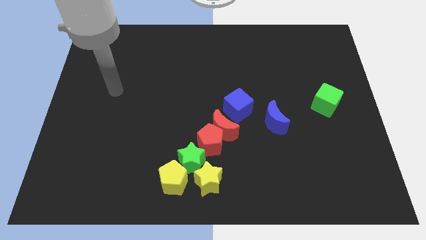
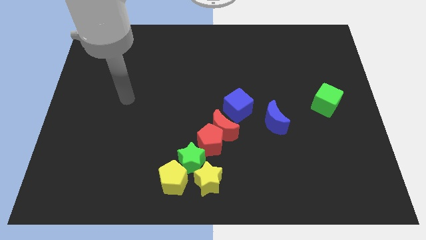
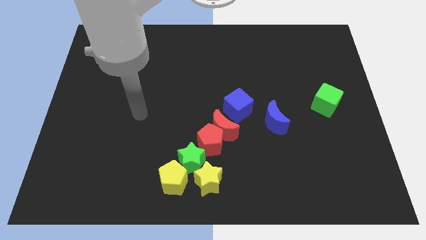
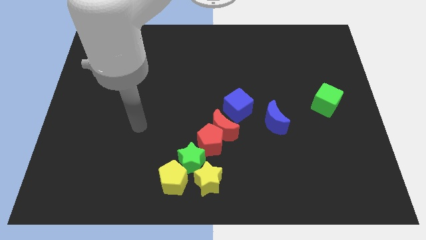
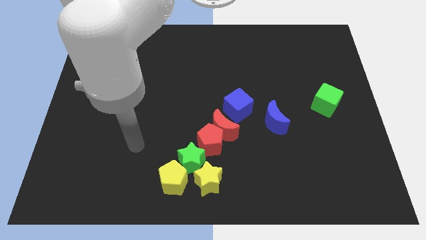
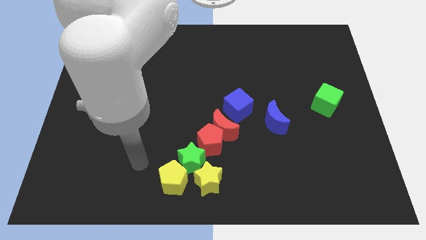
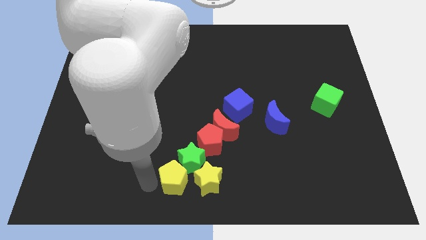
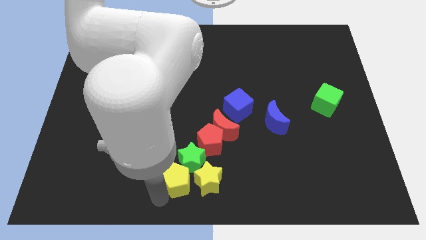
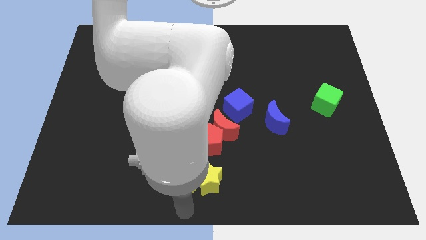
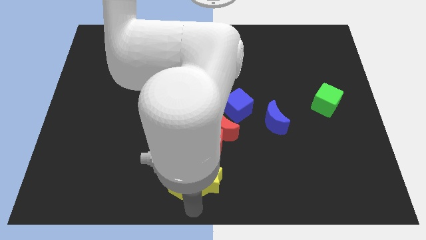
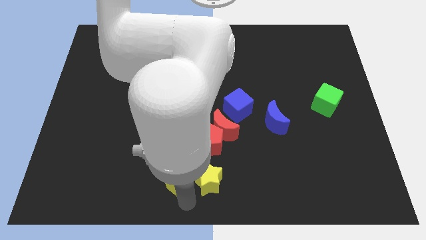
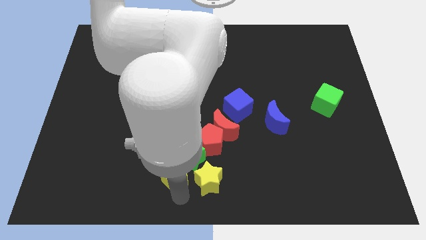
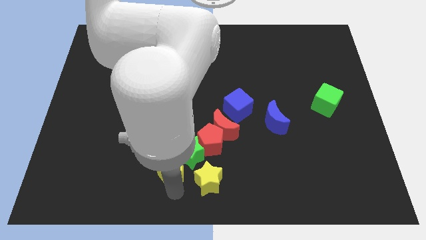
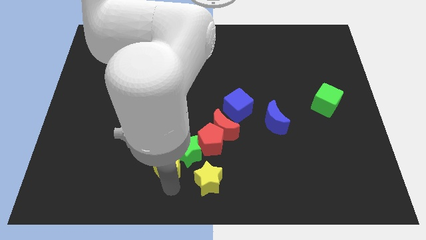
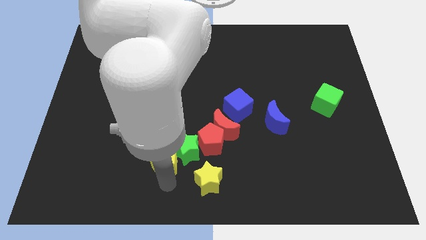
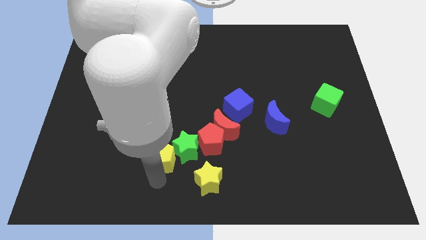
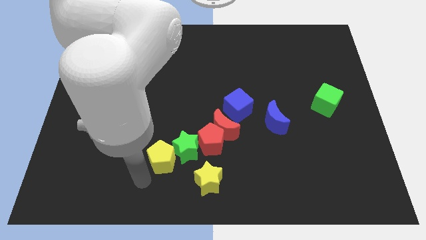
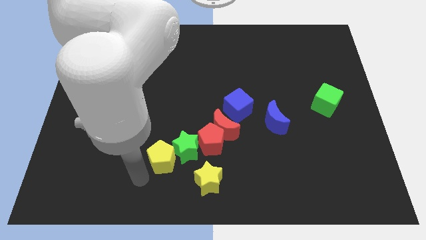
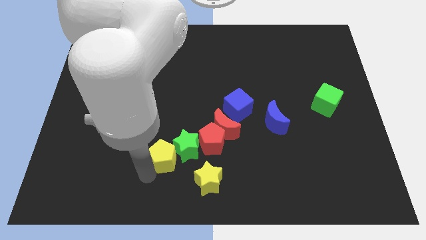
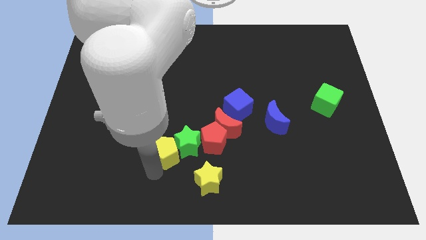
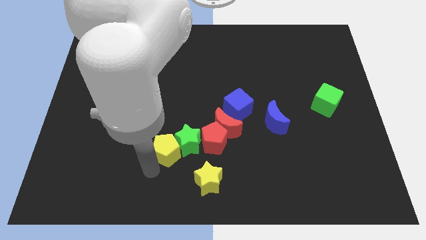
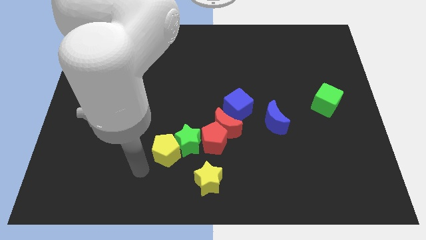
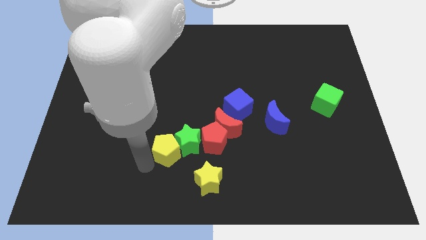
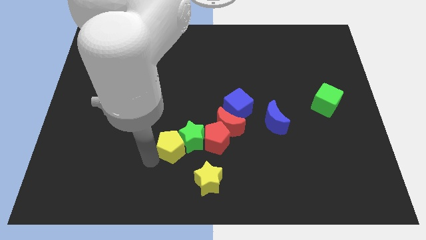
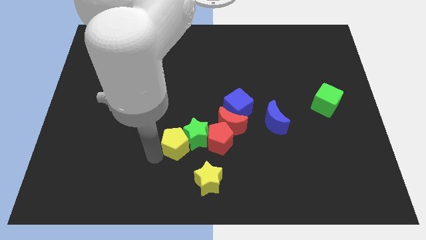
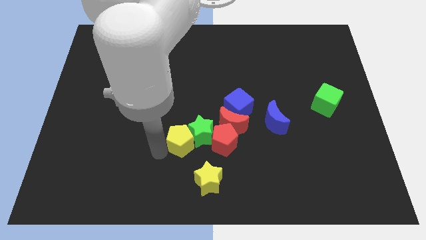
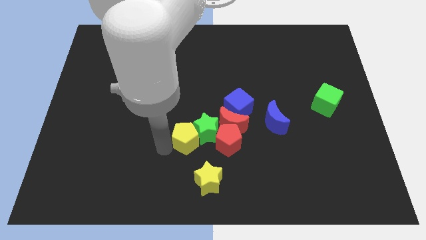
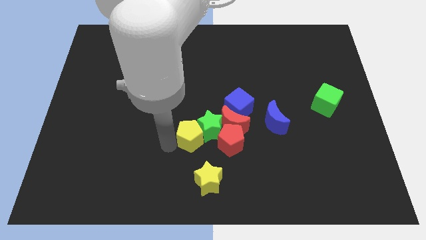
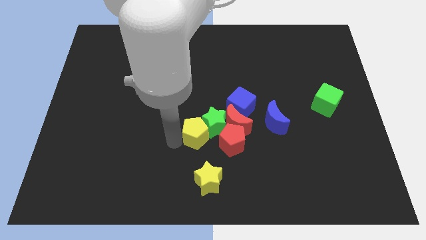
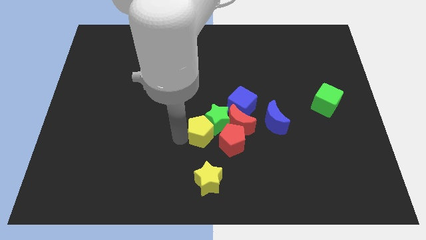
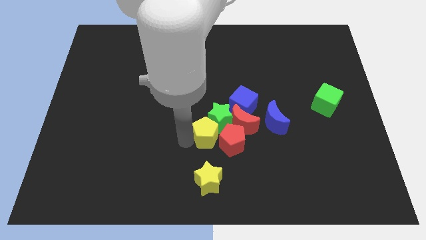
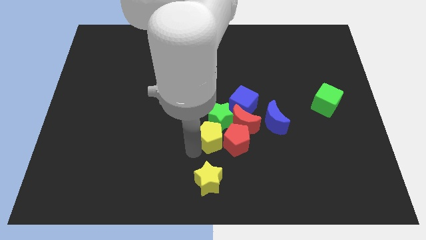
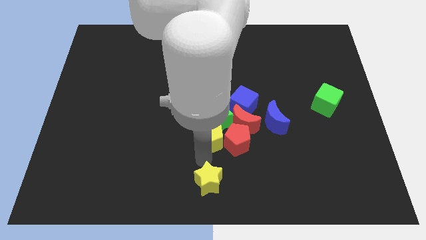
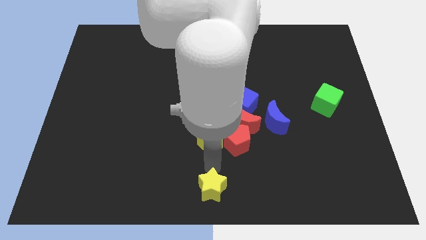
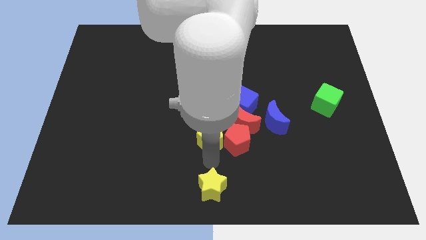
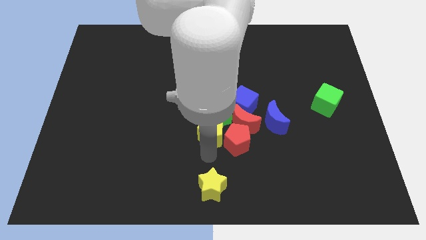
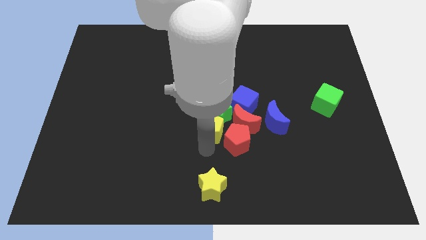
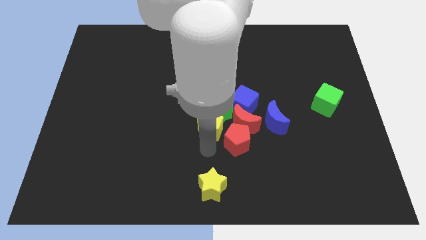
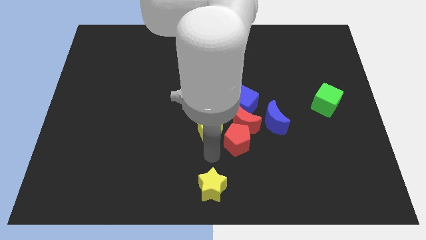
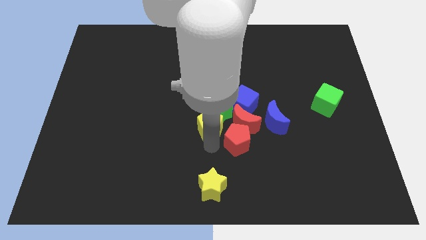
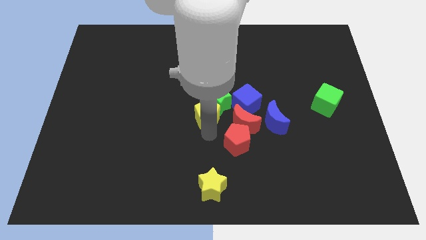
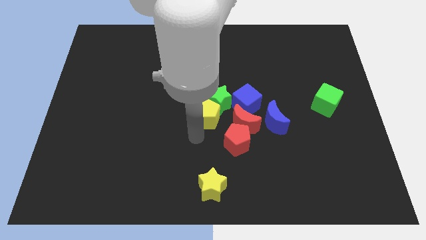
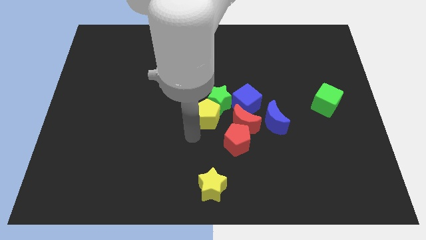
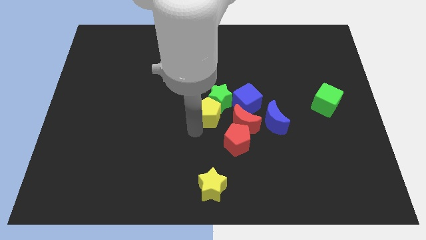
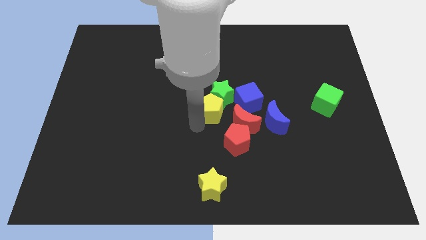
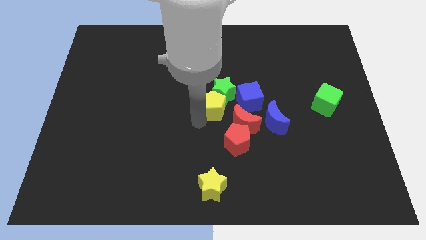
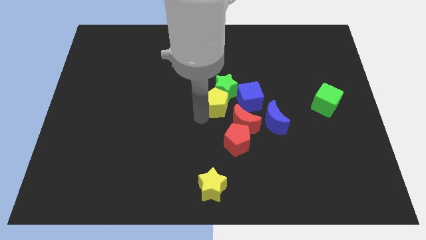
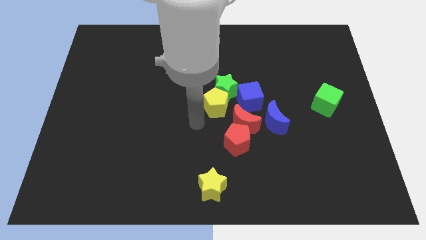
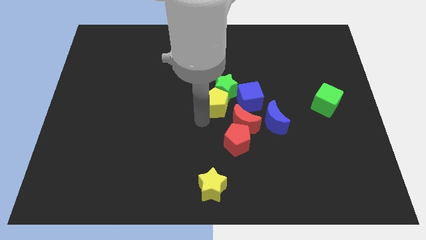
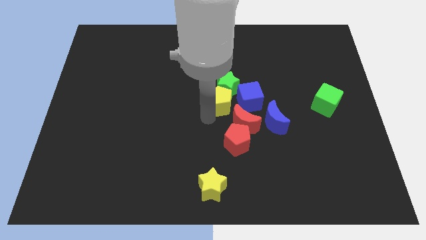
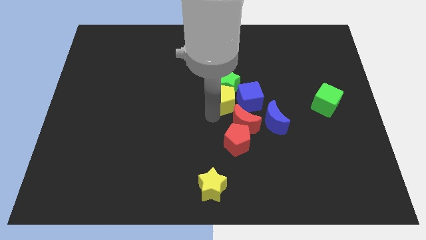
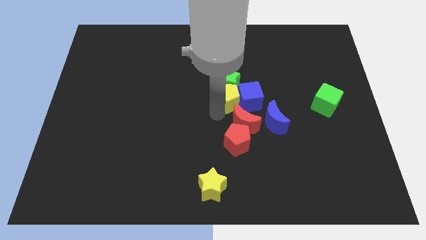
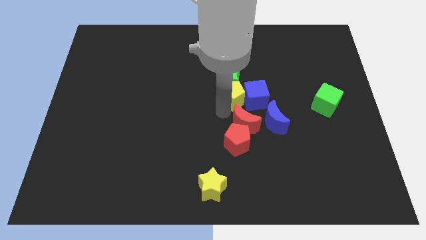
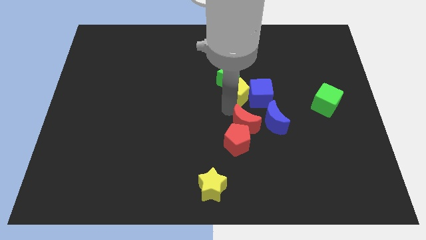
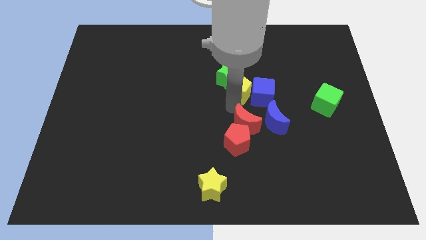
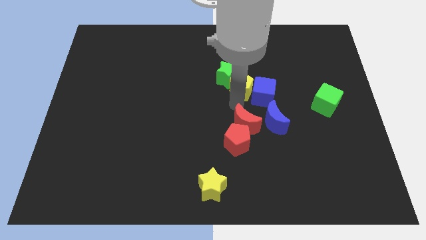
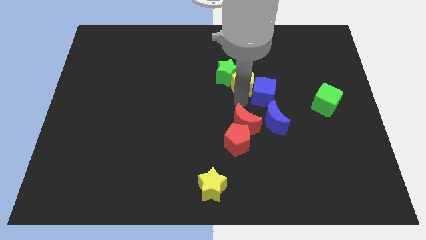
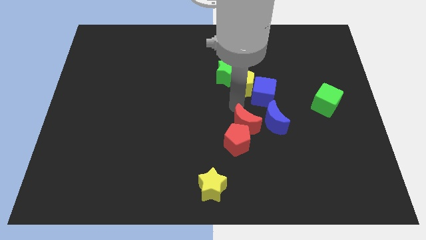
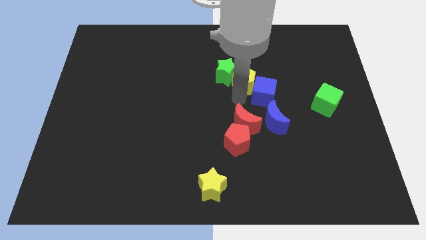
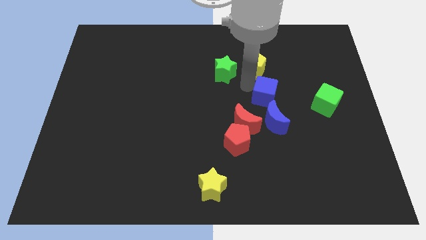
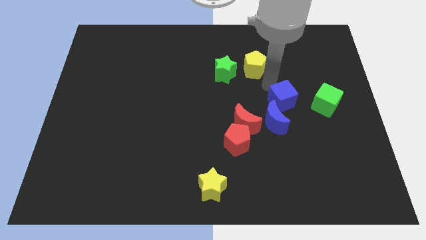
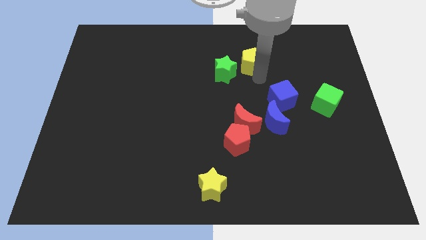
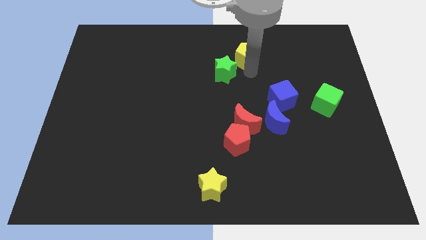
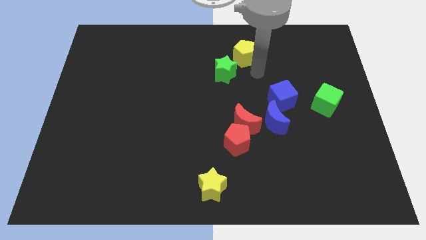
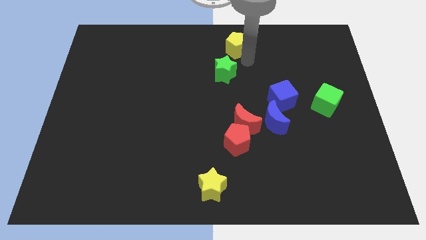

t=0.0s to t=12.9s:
slide the yellow pentagon to the top

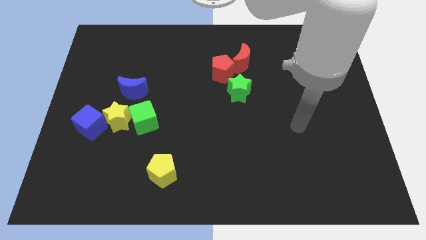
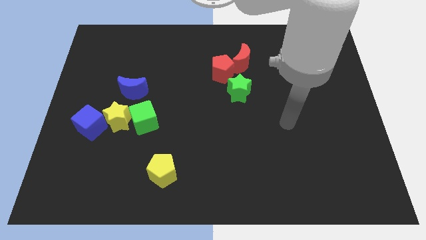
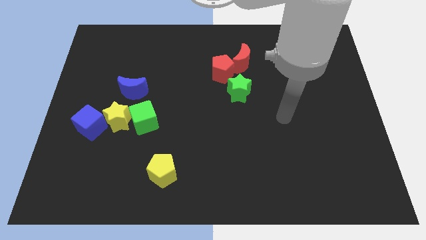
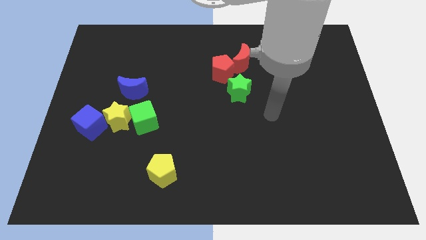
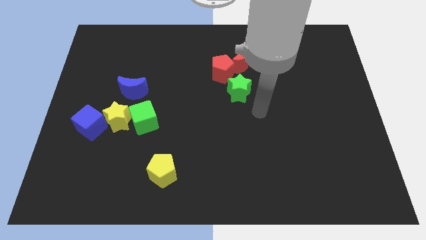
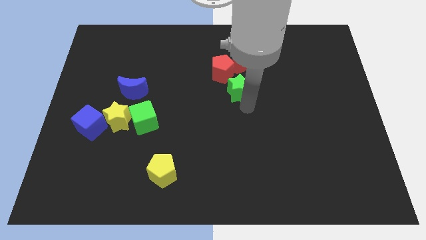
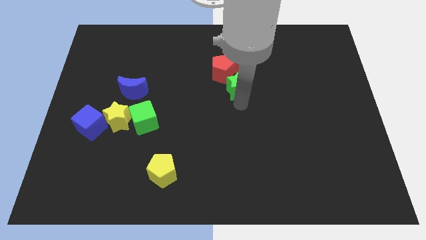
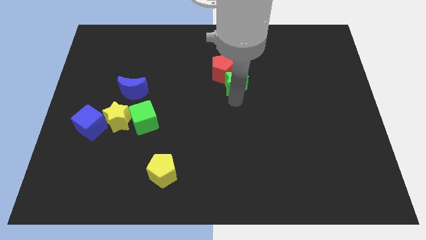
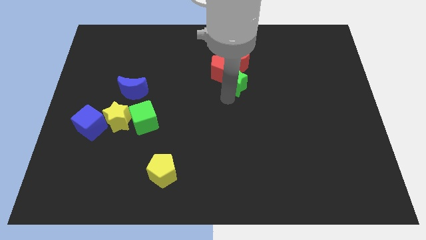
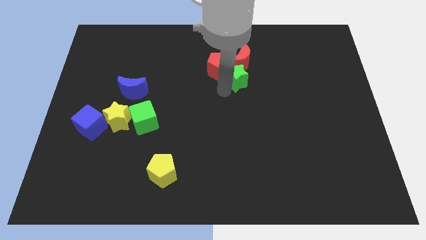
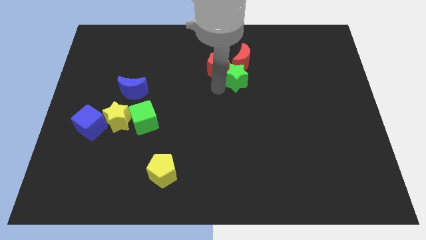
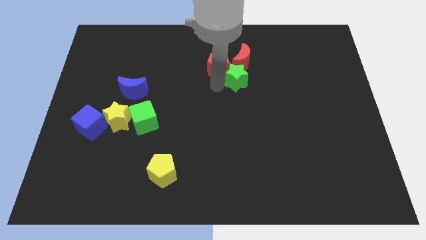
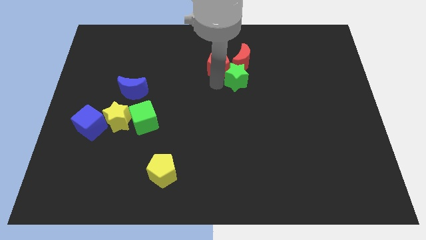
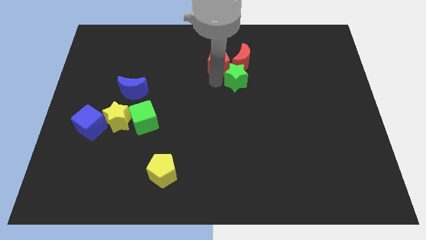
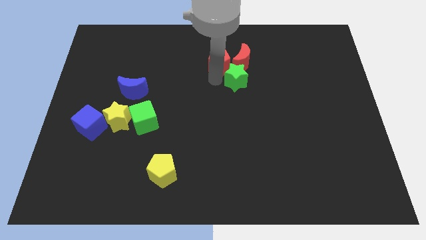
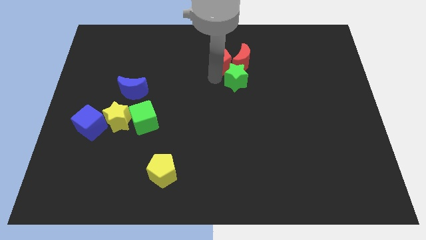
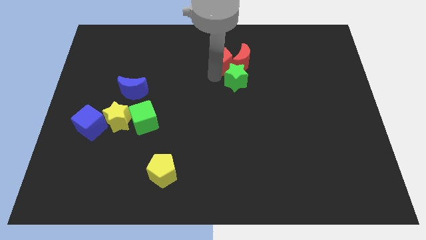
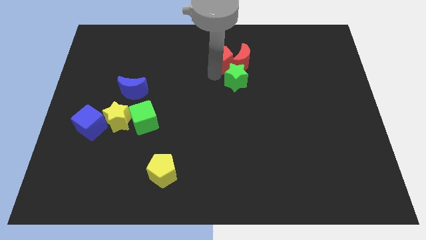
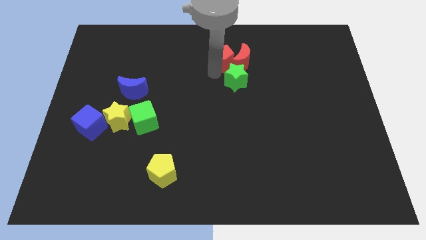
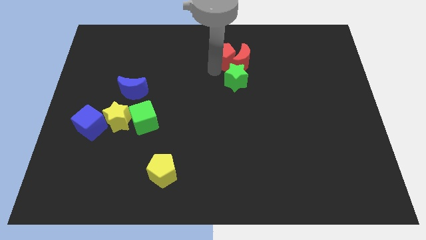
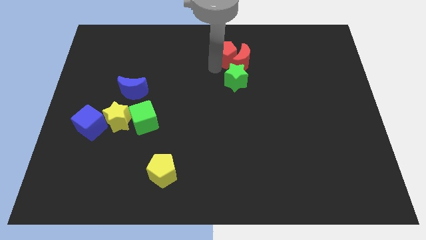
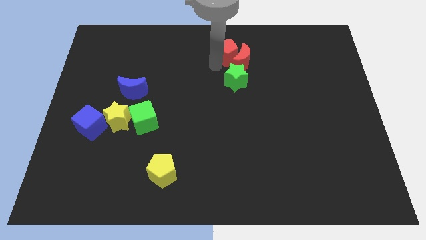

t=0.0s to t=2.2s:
move the red pentagon to the top
